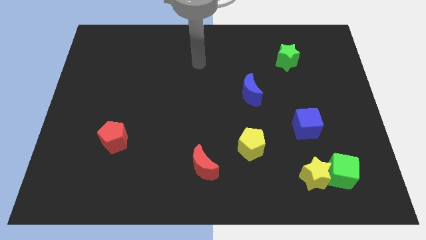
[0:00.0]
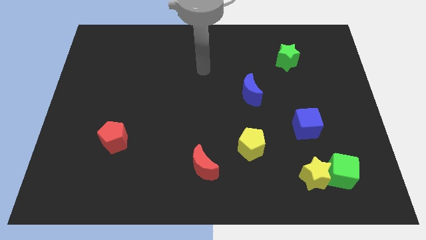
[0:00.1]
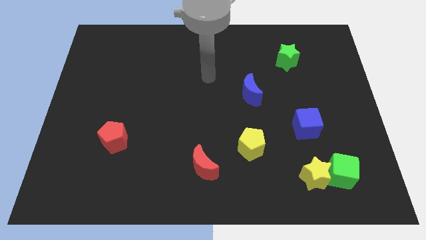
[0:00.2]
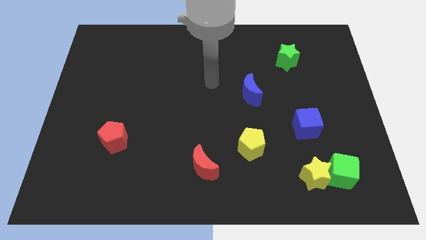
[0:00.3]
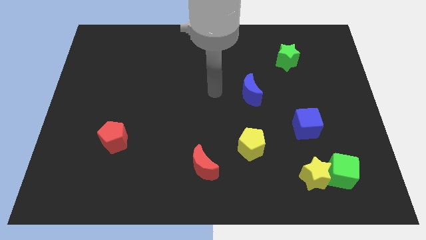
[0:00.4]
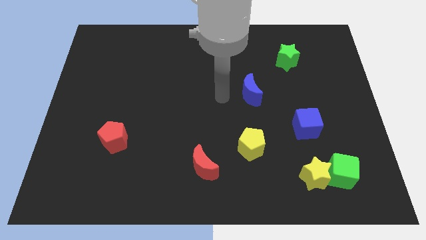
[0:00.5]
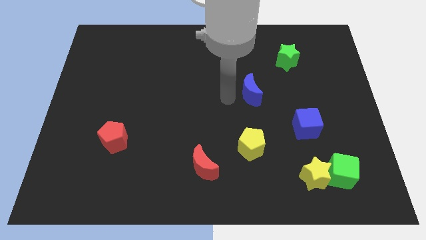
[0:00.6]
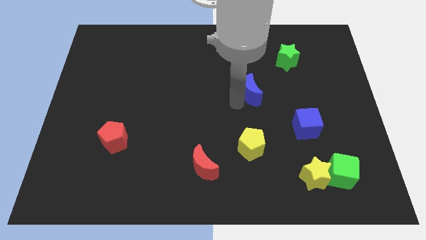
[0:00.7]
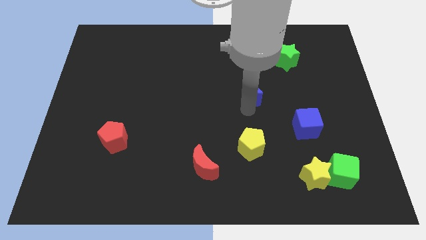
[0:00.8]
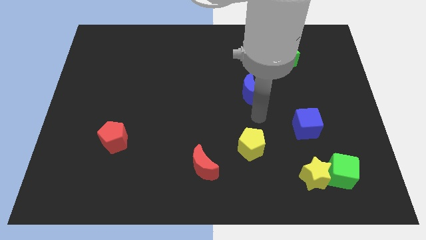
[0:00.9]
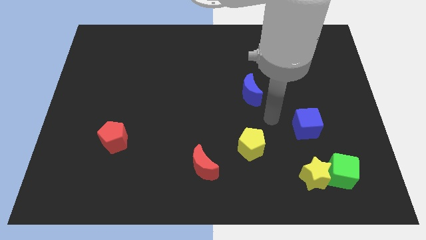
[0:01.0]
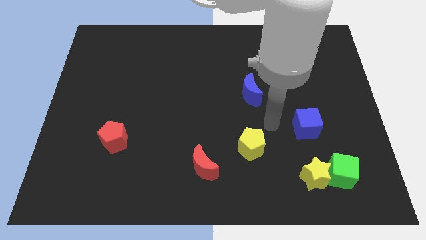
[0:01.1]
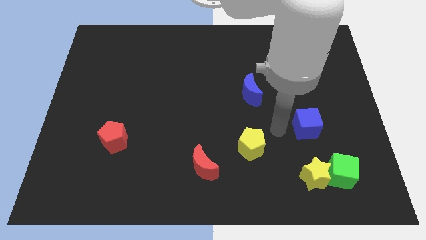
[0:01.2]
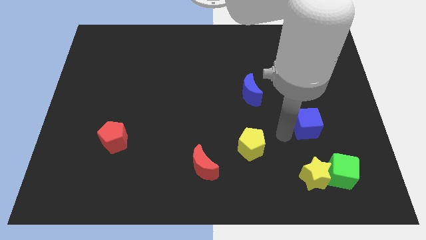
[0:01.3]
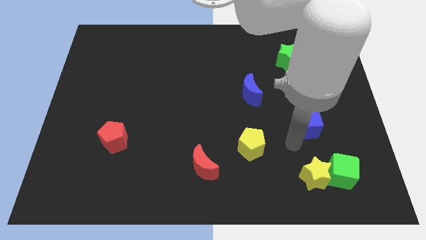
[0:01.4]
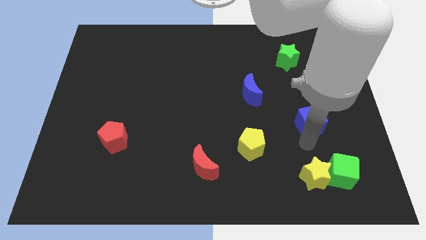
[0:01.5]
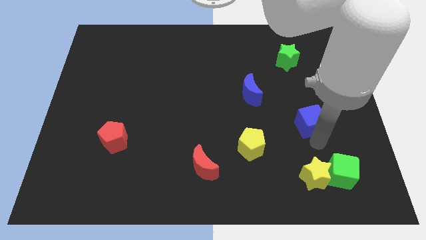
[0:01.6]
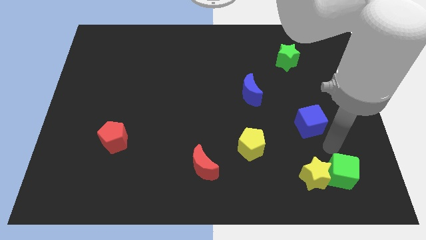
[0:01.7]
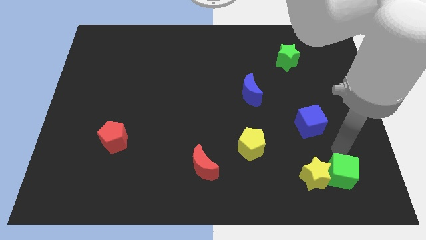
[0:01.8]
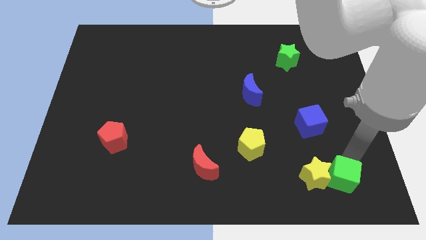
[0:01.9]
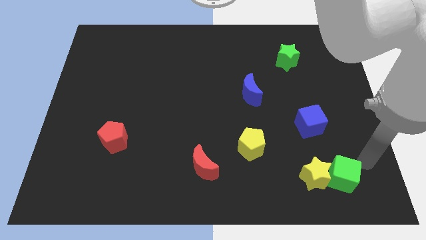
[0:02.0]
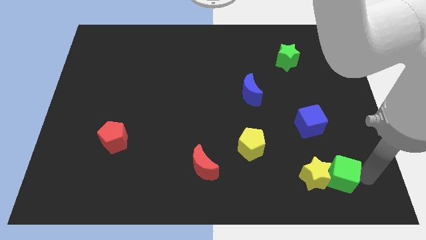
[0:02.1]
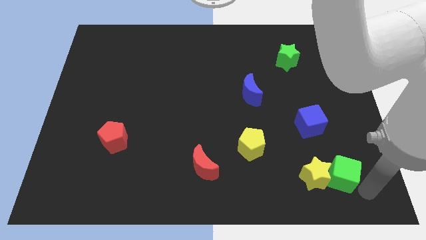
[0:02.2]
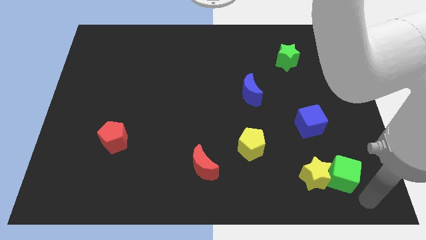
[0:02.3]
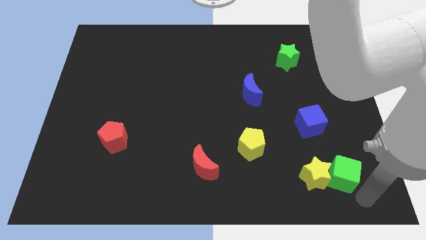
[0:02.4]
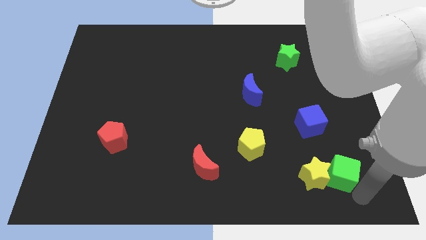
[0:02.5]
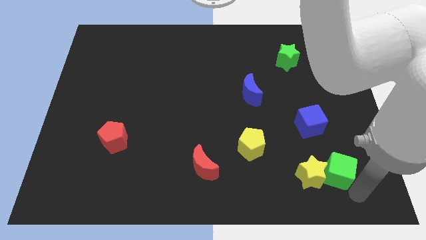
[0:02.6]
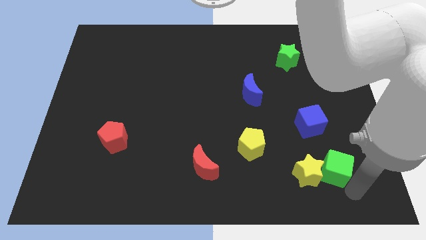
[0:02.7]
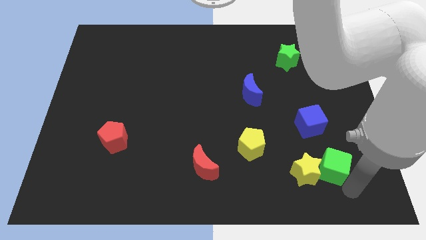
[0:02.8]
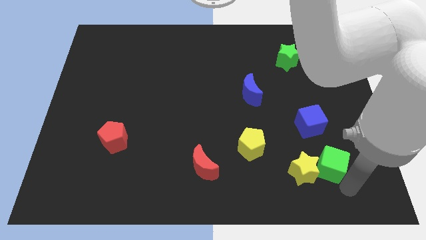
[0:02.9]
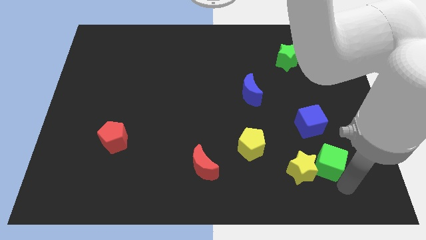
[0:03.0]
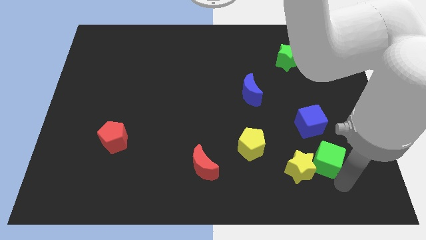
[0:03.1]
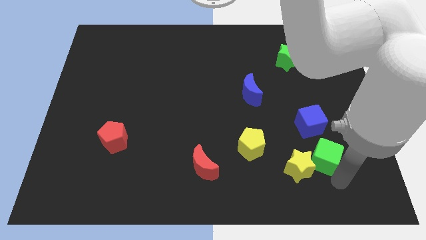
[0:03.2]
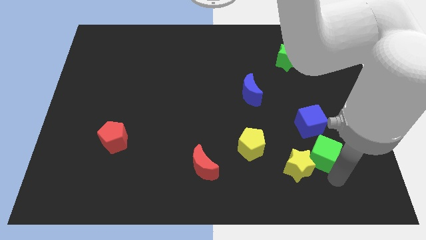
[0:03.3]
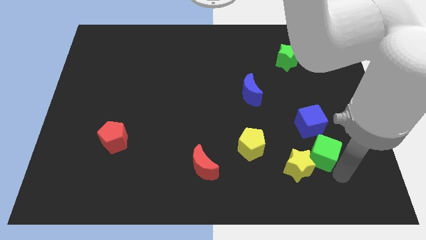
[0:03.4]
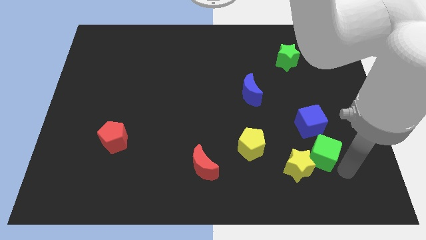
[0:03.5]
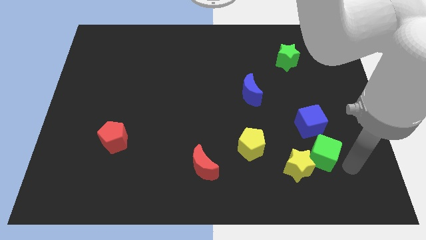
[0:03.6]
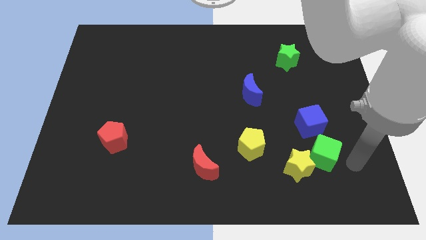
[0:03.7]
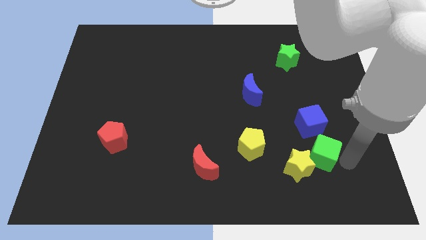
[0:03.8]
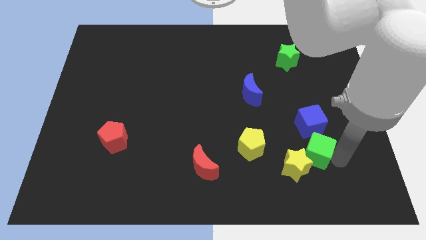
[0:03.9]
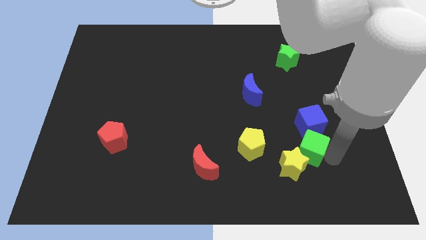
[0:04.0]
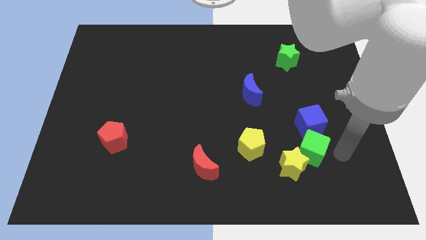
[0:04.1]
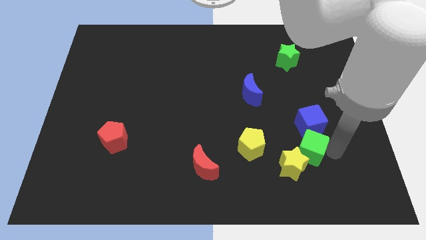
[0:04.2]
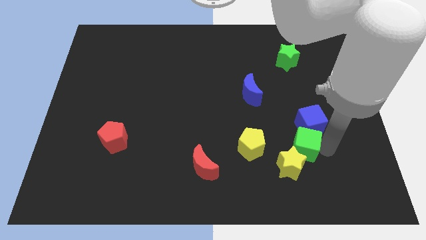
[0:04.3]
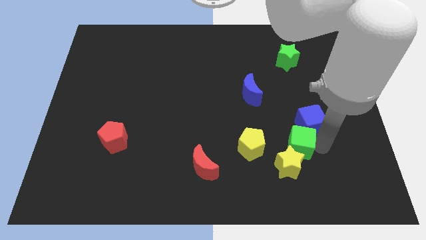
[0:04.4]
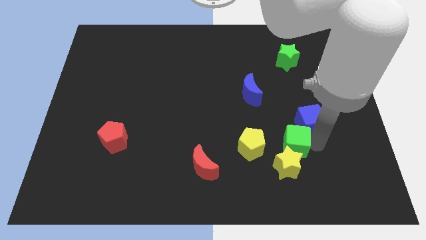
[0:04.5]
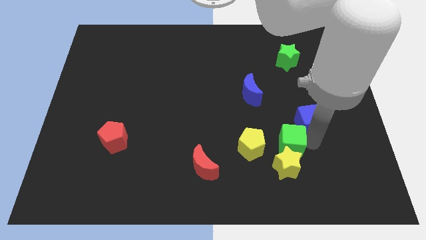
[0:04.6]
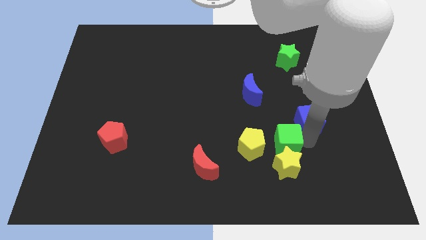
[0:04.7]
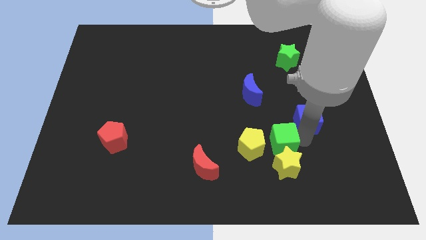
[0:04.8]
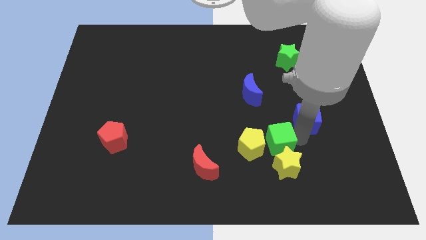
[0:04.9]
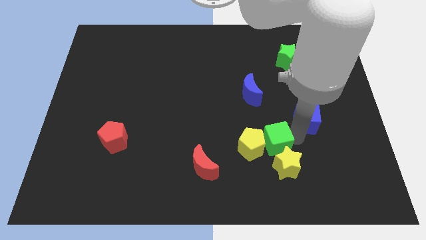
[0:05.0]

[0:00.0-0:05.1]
slide the green cube next to the yellow pentagon

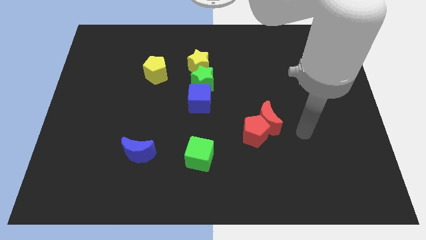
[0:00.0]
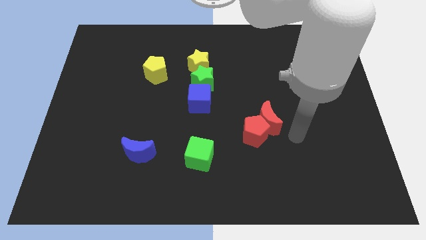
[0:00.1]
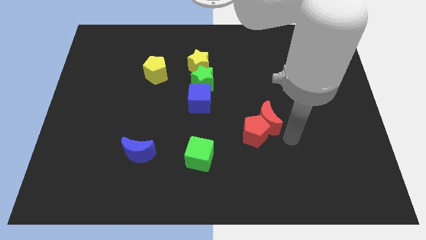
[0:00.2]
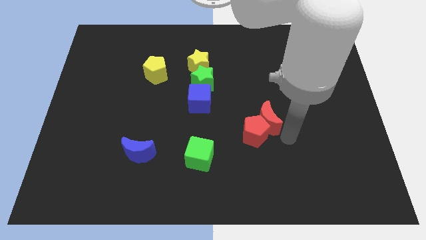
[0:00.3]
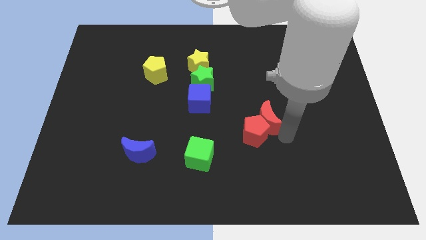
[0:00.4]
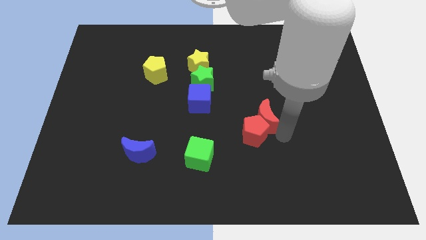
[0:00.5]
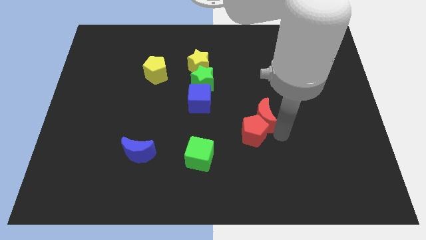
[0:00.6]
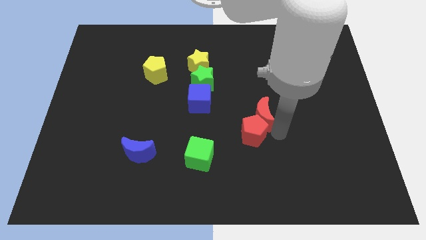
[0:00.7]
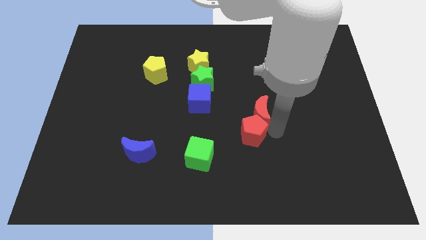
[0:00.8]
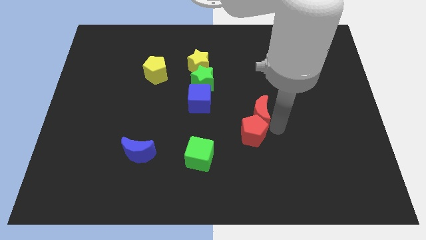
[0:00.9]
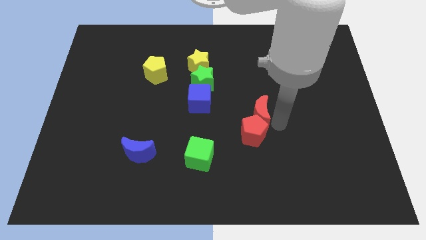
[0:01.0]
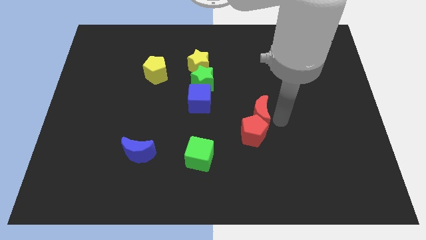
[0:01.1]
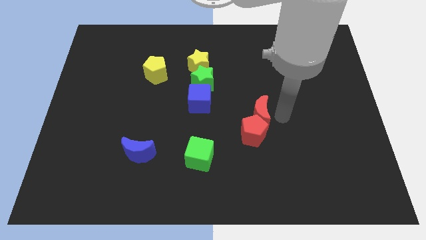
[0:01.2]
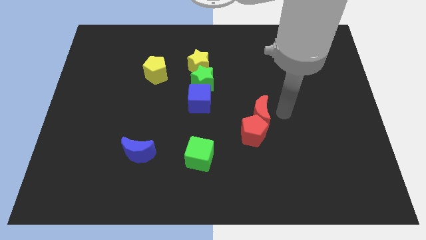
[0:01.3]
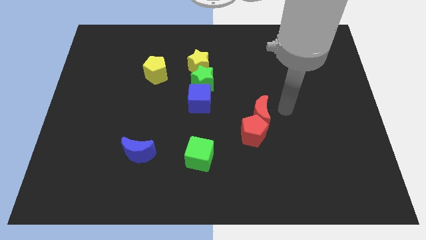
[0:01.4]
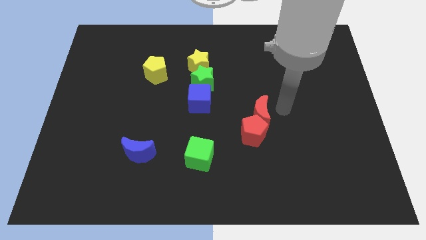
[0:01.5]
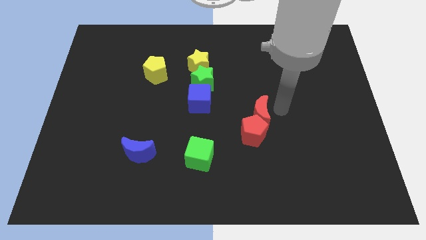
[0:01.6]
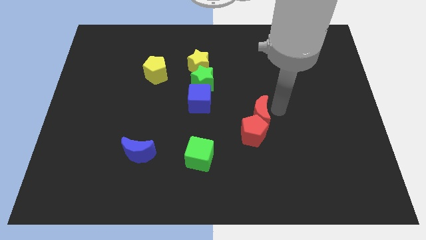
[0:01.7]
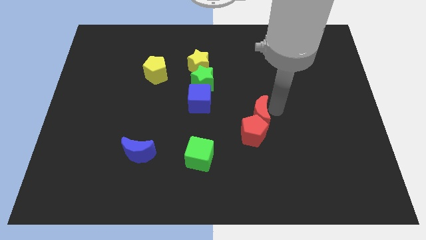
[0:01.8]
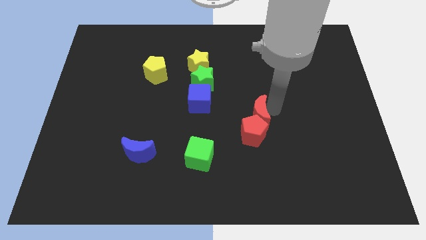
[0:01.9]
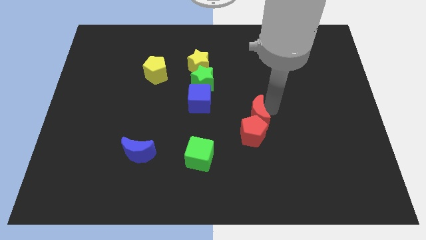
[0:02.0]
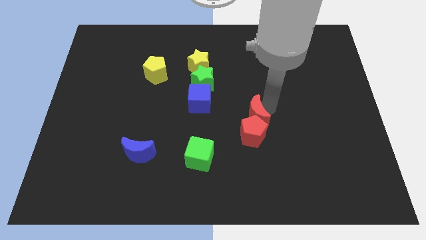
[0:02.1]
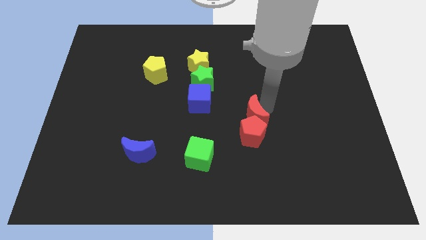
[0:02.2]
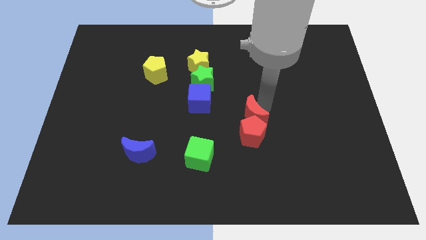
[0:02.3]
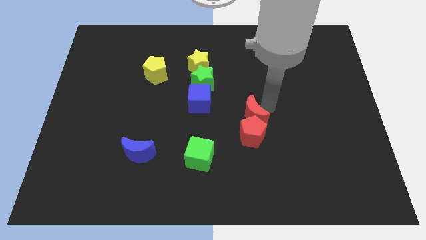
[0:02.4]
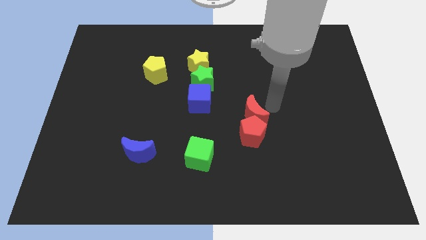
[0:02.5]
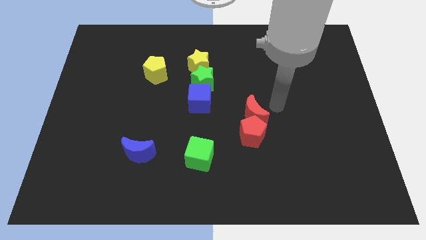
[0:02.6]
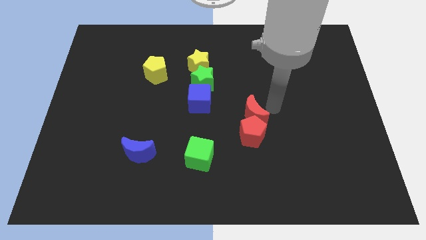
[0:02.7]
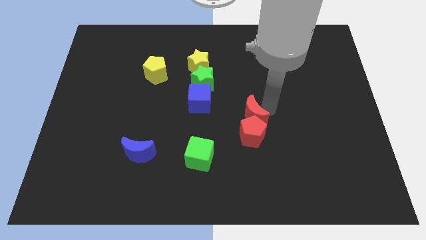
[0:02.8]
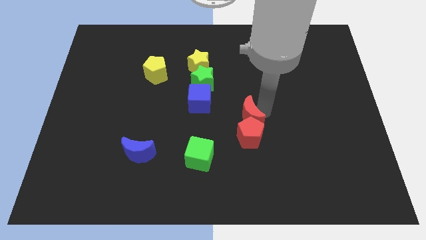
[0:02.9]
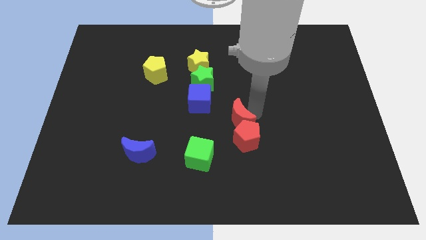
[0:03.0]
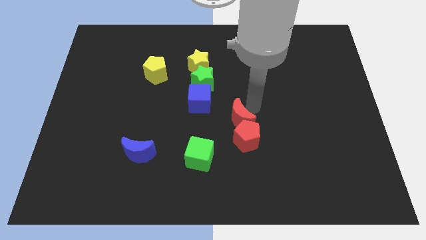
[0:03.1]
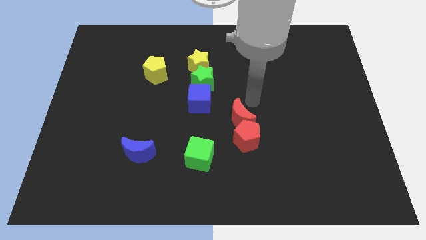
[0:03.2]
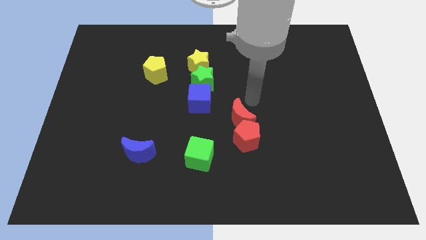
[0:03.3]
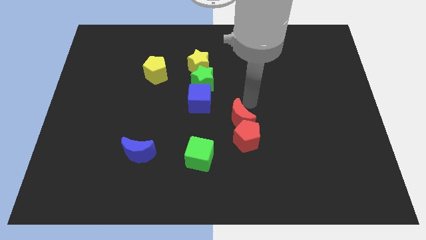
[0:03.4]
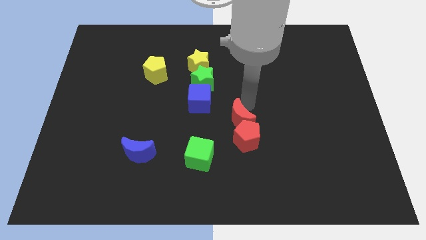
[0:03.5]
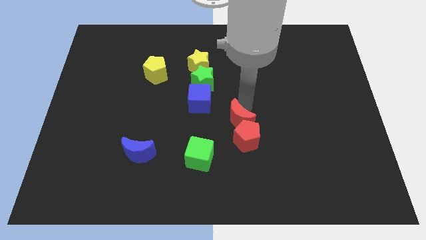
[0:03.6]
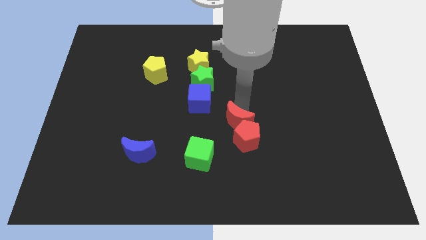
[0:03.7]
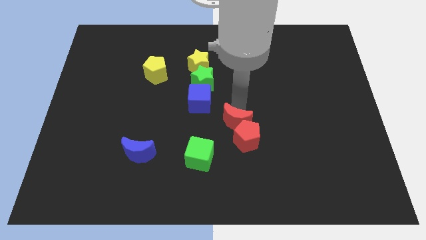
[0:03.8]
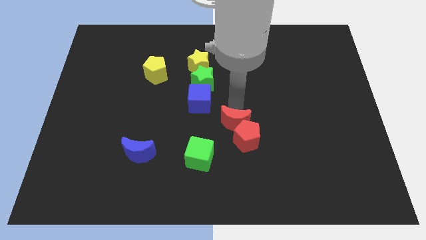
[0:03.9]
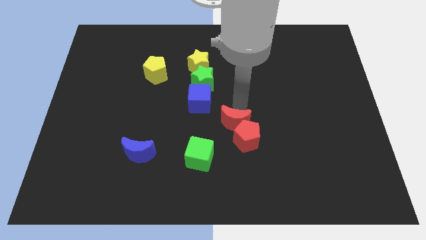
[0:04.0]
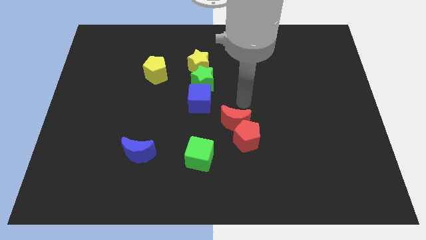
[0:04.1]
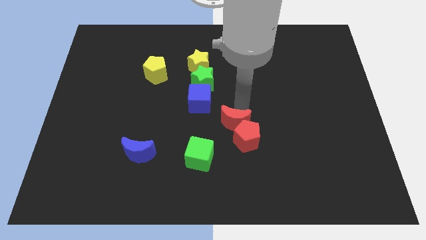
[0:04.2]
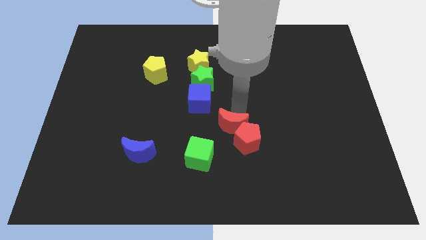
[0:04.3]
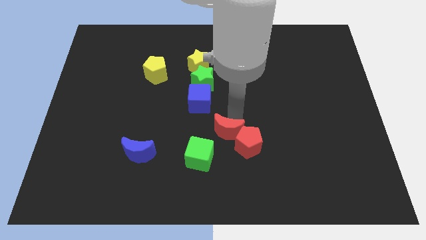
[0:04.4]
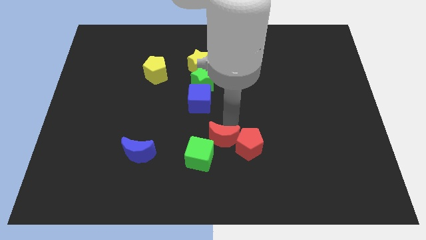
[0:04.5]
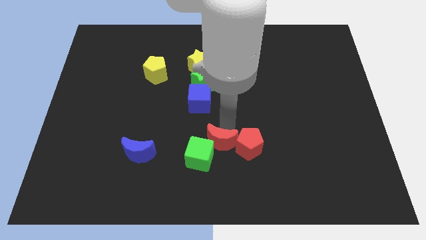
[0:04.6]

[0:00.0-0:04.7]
move the red moon next to the green cube
